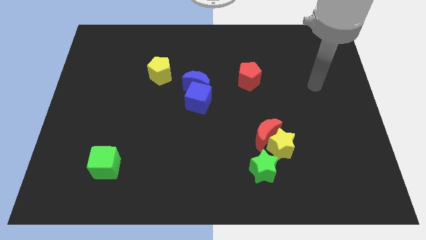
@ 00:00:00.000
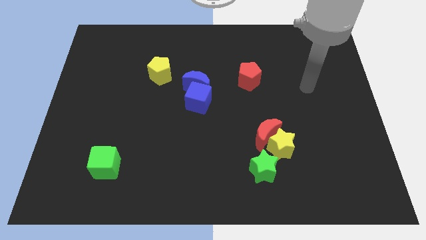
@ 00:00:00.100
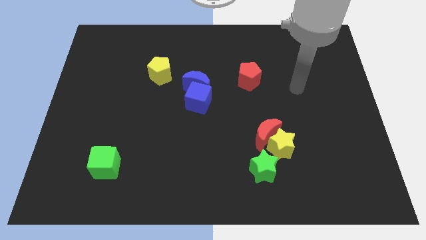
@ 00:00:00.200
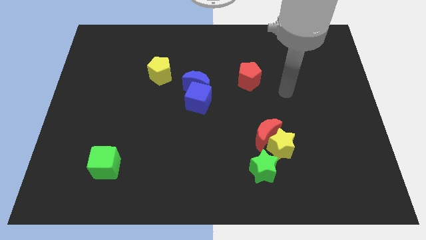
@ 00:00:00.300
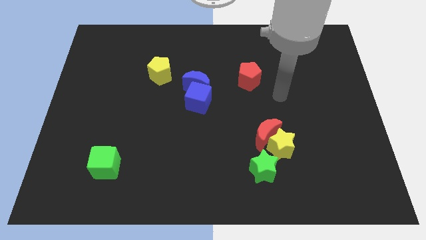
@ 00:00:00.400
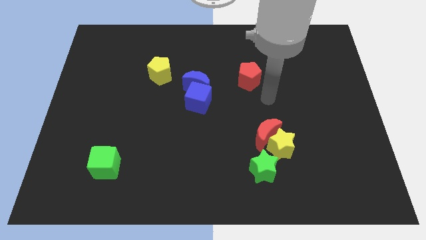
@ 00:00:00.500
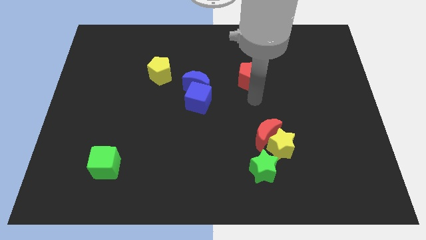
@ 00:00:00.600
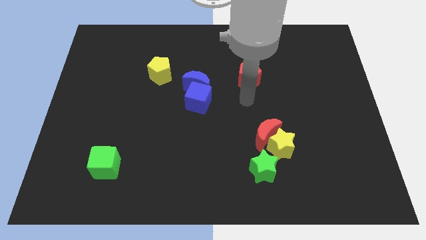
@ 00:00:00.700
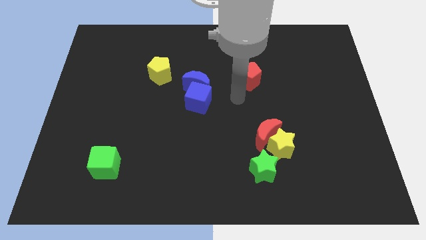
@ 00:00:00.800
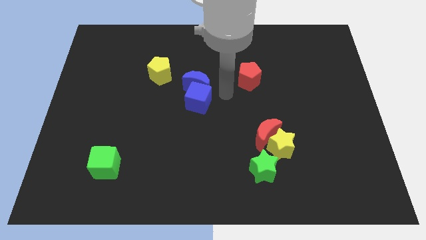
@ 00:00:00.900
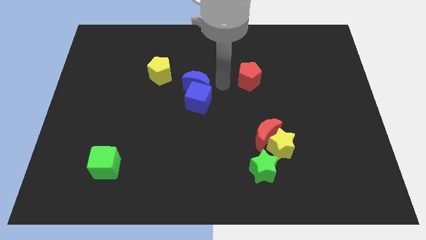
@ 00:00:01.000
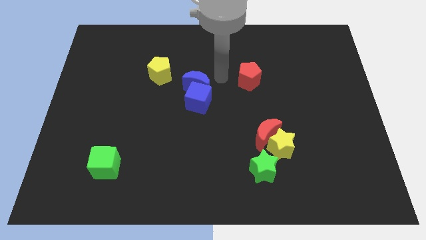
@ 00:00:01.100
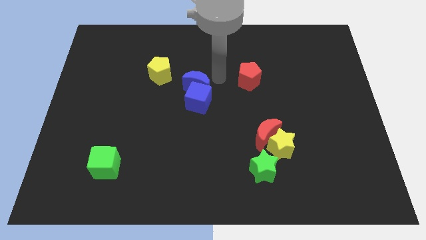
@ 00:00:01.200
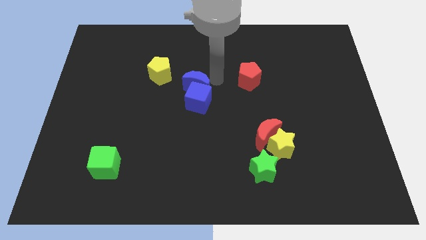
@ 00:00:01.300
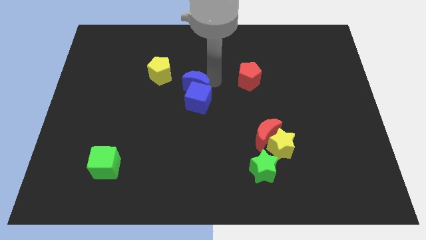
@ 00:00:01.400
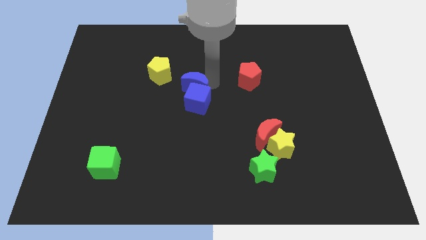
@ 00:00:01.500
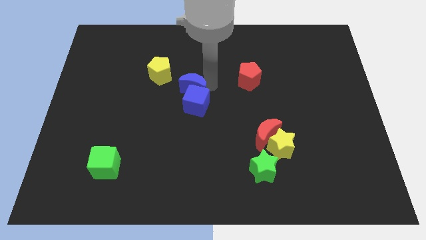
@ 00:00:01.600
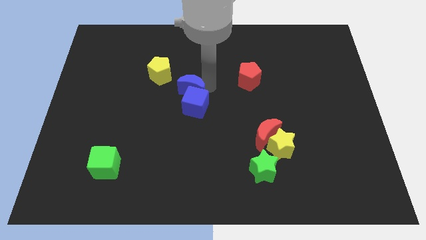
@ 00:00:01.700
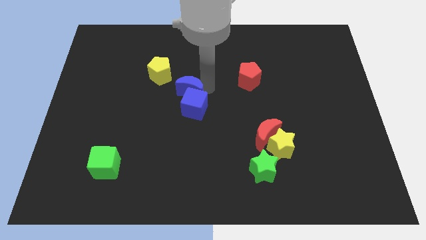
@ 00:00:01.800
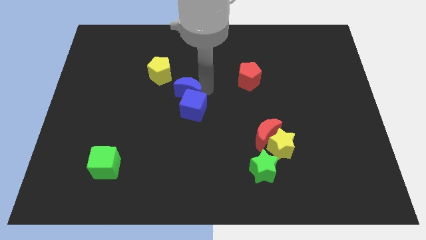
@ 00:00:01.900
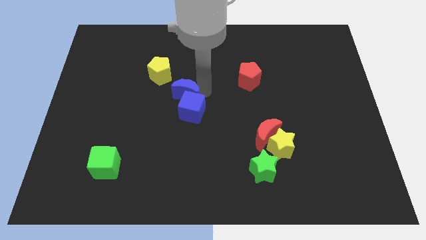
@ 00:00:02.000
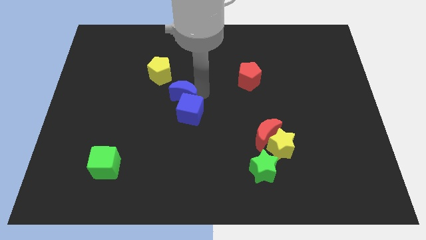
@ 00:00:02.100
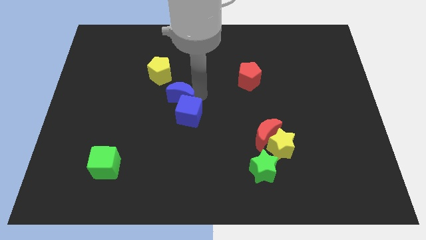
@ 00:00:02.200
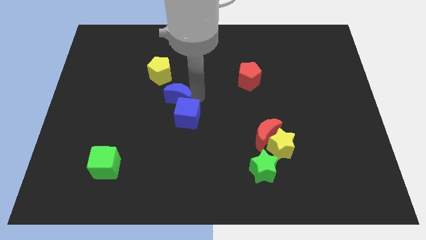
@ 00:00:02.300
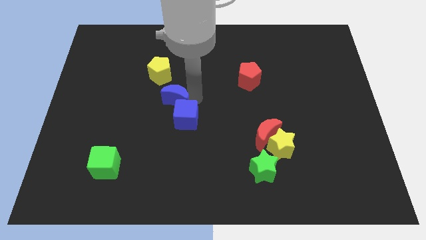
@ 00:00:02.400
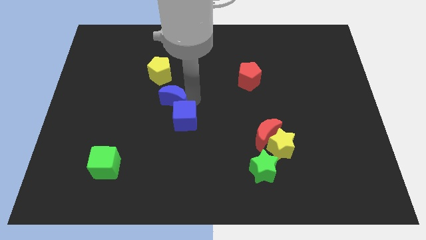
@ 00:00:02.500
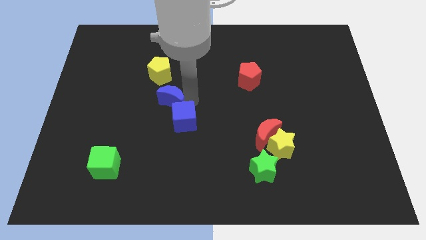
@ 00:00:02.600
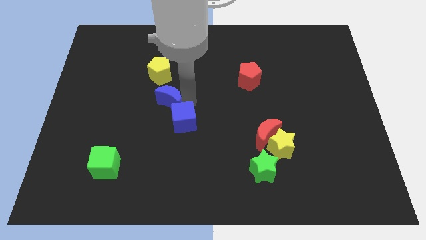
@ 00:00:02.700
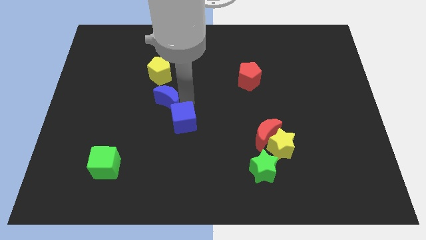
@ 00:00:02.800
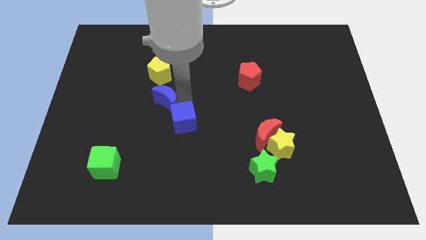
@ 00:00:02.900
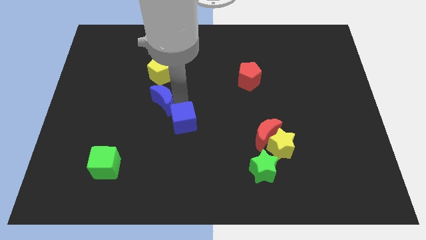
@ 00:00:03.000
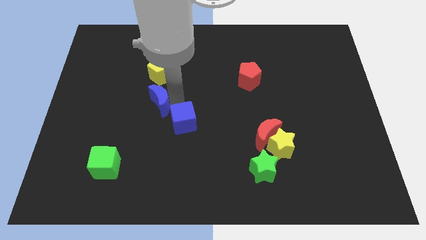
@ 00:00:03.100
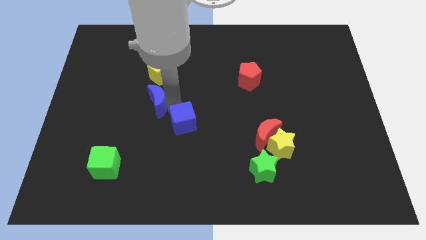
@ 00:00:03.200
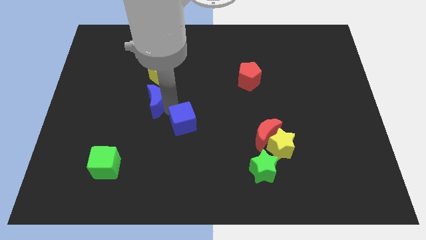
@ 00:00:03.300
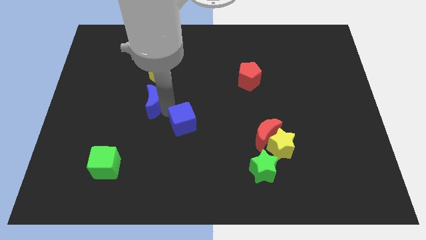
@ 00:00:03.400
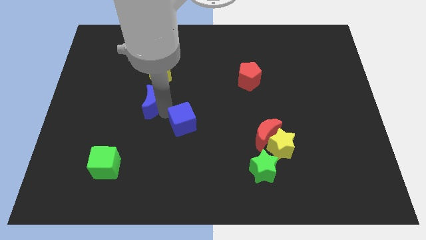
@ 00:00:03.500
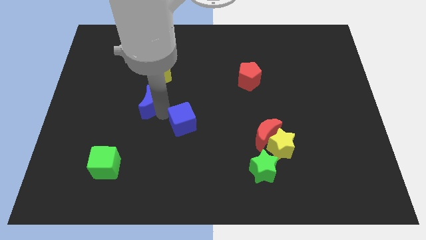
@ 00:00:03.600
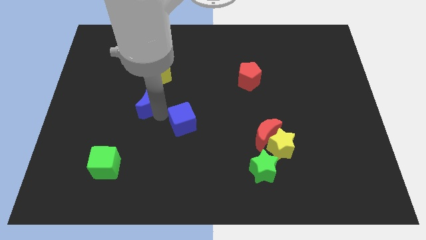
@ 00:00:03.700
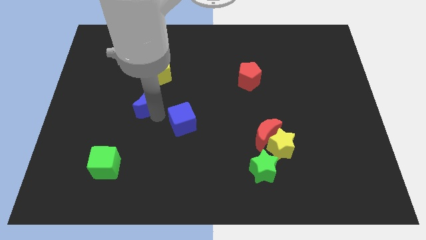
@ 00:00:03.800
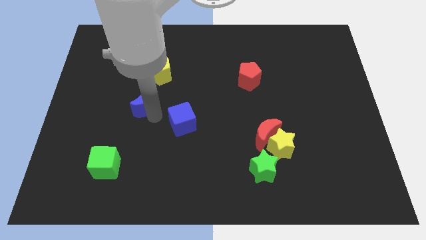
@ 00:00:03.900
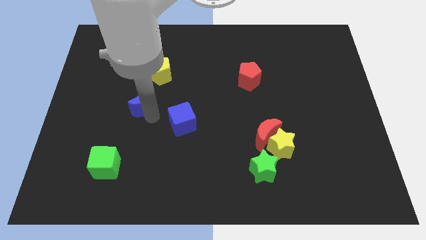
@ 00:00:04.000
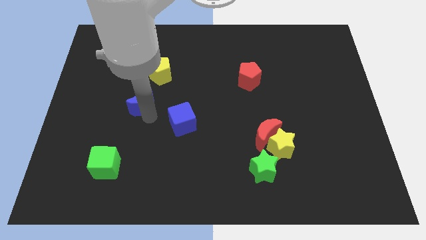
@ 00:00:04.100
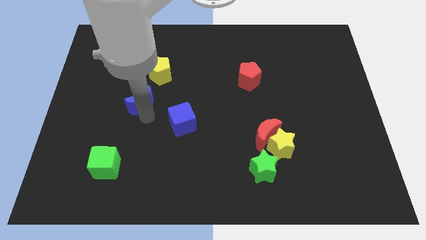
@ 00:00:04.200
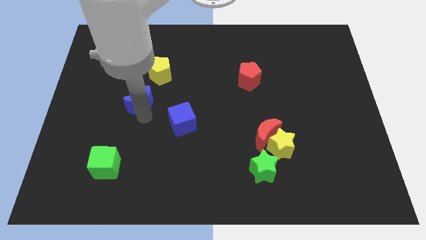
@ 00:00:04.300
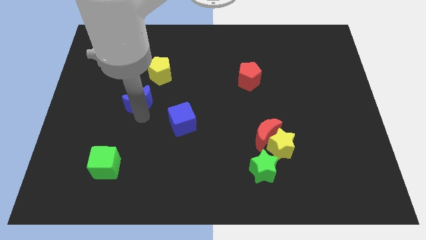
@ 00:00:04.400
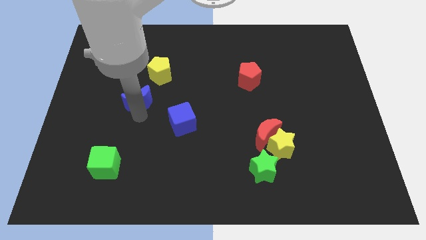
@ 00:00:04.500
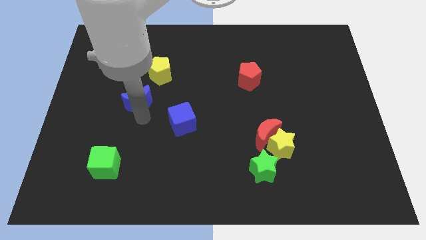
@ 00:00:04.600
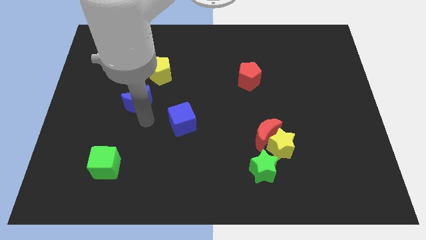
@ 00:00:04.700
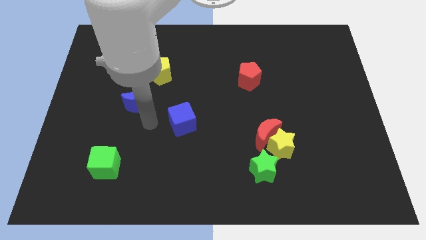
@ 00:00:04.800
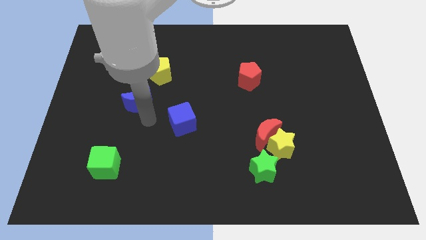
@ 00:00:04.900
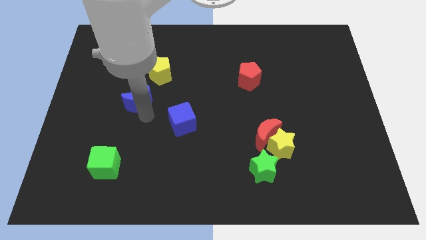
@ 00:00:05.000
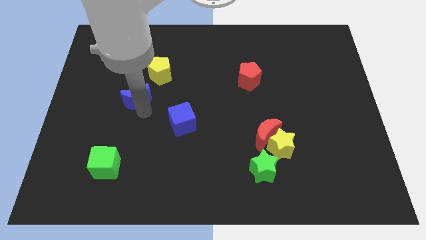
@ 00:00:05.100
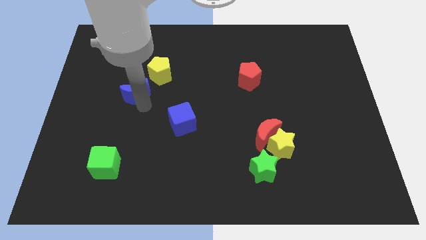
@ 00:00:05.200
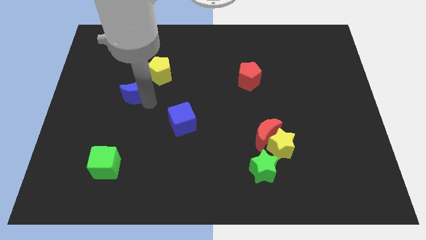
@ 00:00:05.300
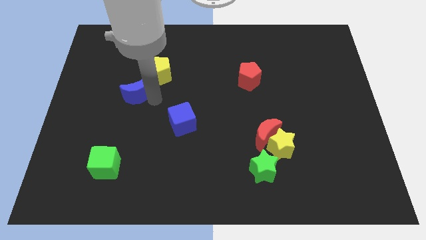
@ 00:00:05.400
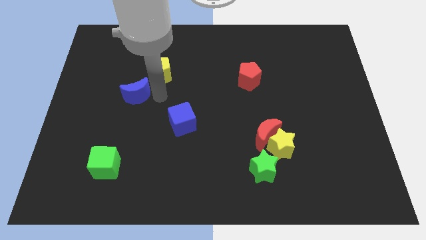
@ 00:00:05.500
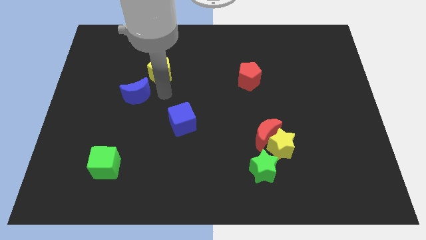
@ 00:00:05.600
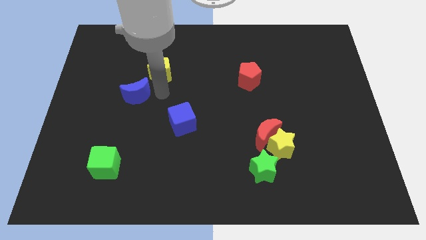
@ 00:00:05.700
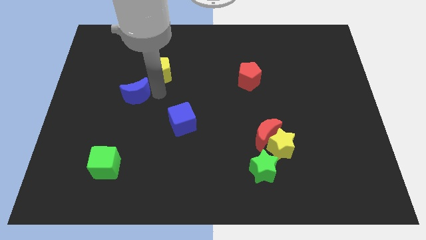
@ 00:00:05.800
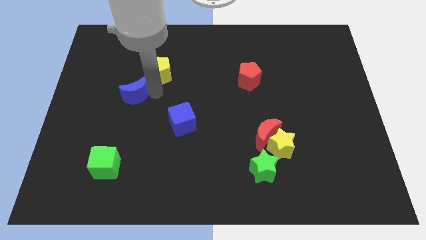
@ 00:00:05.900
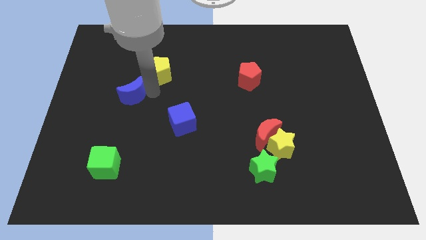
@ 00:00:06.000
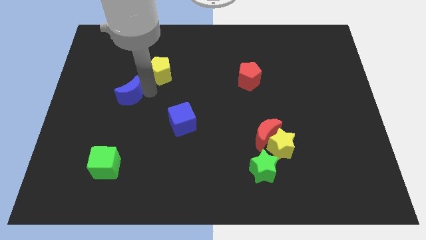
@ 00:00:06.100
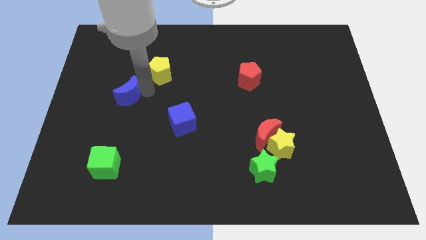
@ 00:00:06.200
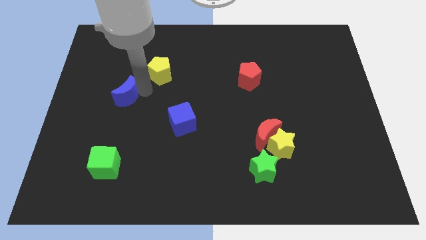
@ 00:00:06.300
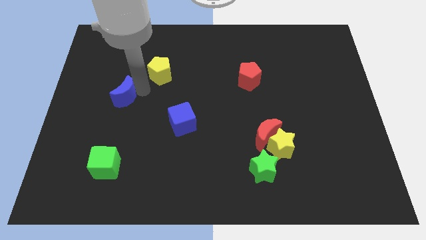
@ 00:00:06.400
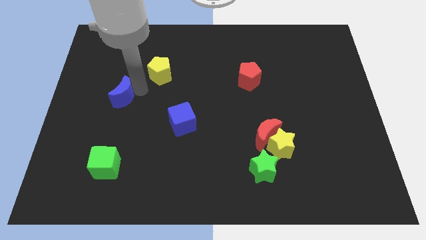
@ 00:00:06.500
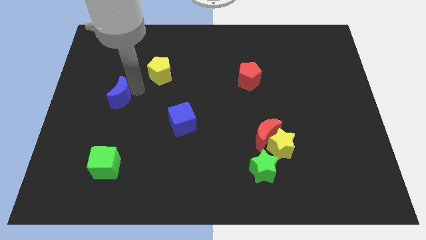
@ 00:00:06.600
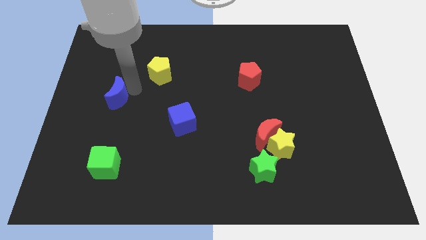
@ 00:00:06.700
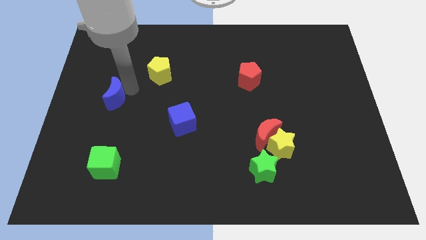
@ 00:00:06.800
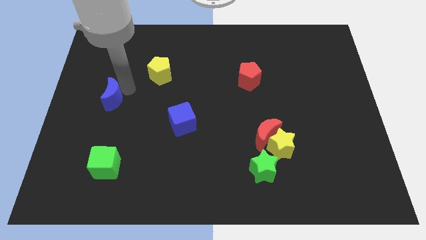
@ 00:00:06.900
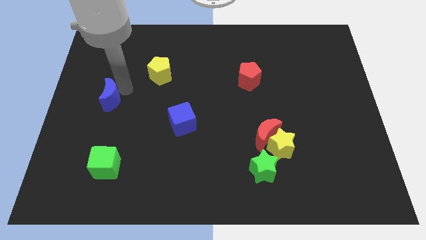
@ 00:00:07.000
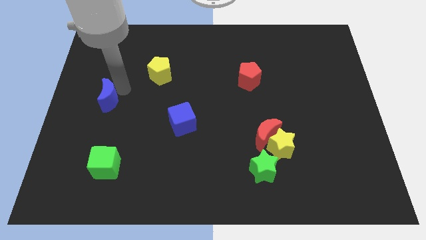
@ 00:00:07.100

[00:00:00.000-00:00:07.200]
put the blue moon to the center left
